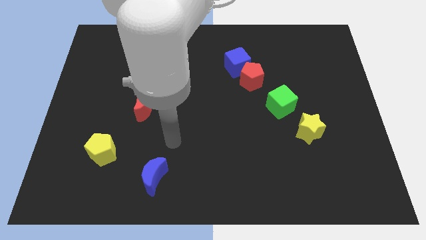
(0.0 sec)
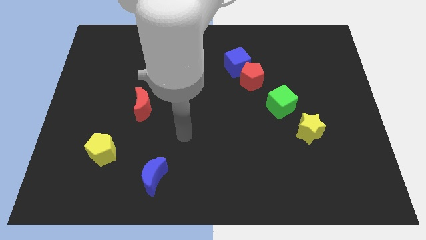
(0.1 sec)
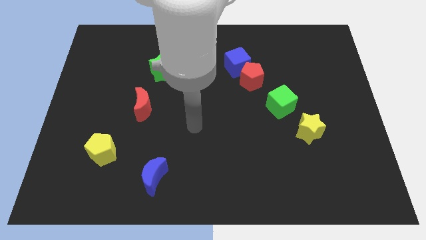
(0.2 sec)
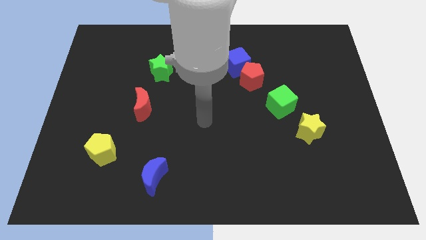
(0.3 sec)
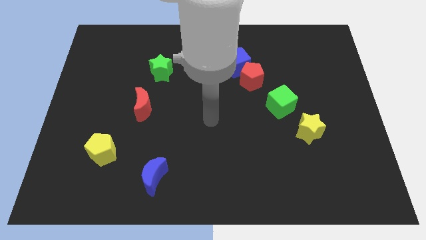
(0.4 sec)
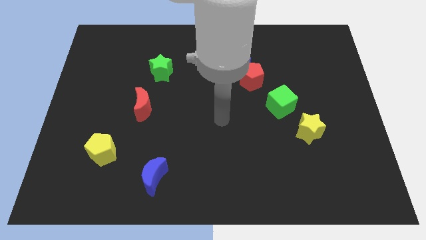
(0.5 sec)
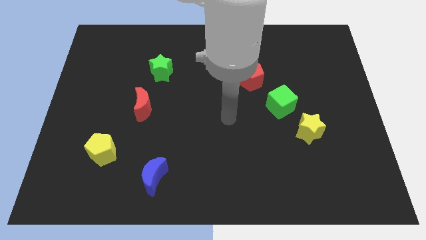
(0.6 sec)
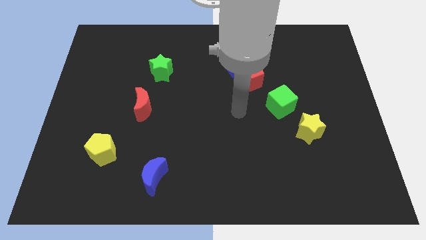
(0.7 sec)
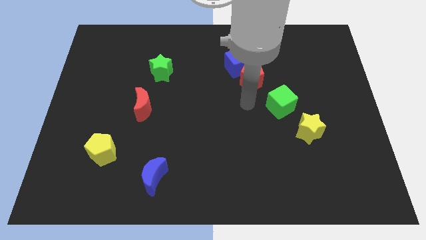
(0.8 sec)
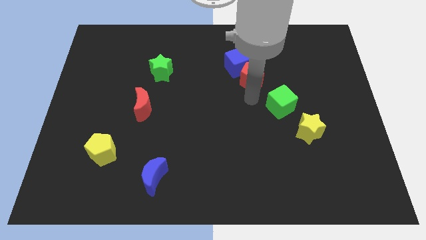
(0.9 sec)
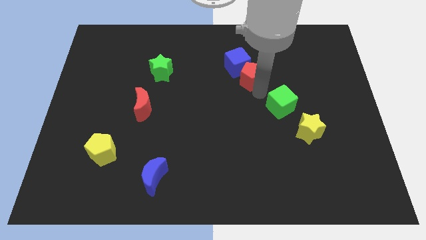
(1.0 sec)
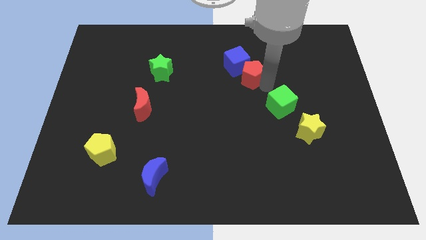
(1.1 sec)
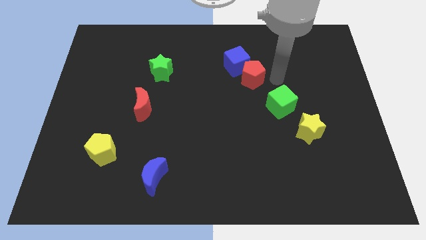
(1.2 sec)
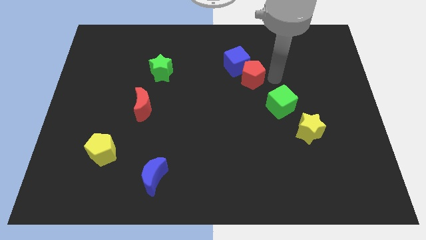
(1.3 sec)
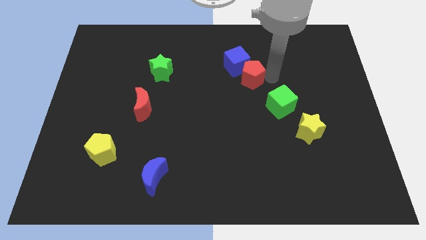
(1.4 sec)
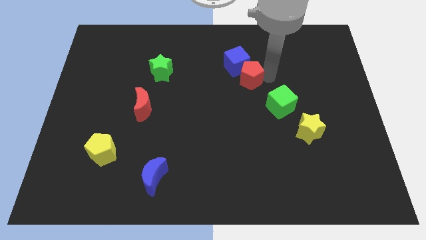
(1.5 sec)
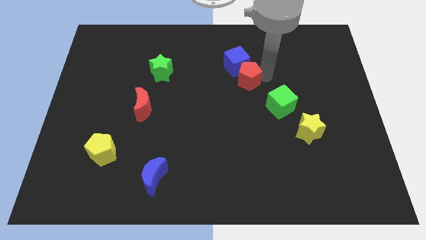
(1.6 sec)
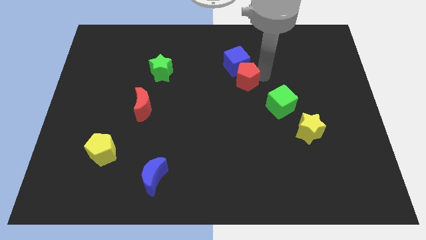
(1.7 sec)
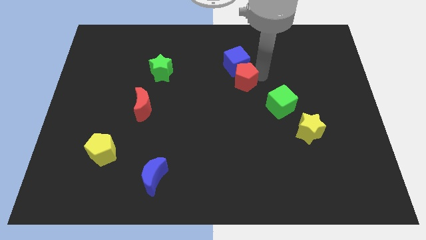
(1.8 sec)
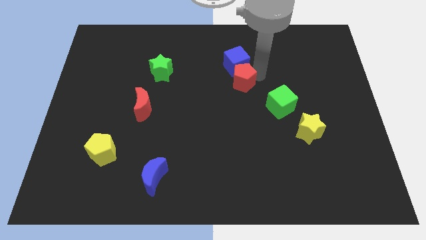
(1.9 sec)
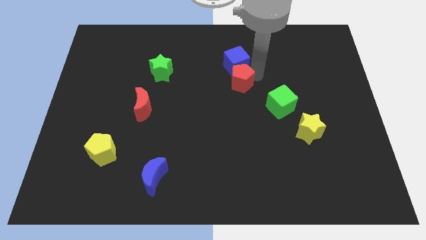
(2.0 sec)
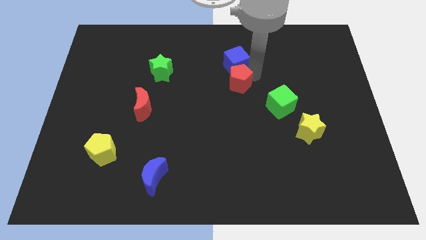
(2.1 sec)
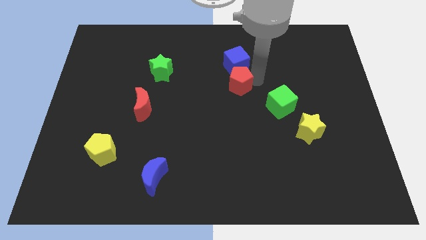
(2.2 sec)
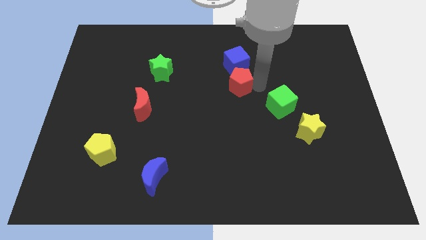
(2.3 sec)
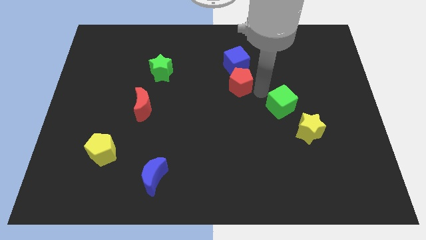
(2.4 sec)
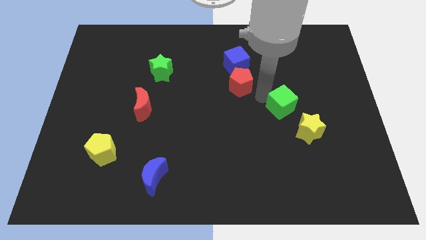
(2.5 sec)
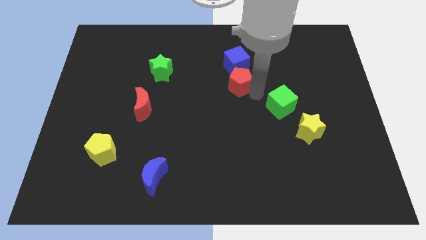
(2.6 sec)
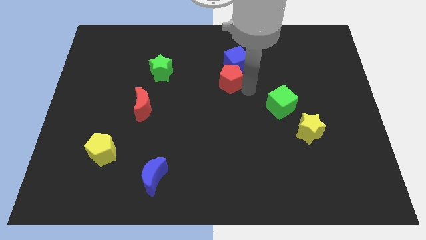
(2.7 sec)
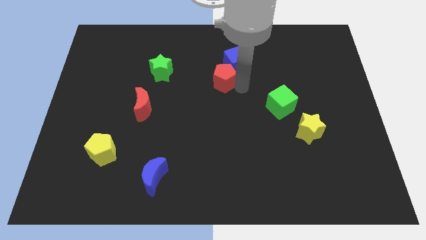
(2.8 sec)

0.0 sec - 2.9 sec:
push the red pentagon a little bit to the left

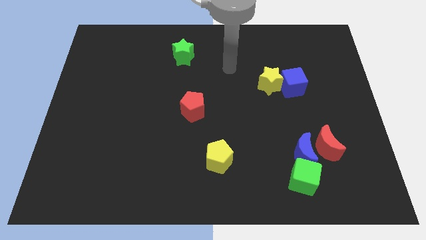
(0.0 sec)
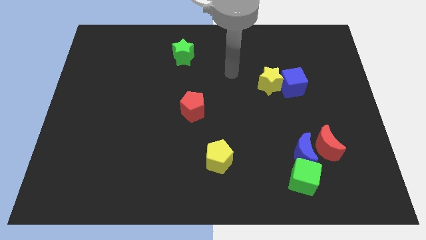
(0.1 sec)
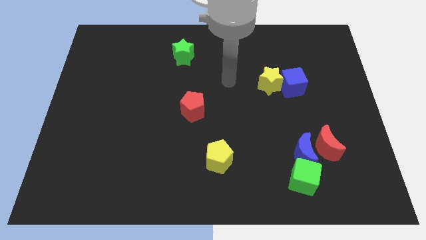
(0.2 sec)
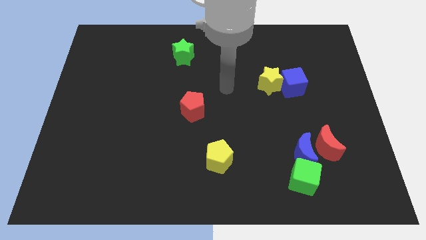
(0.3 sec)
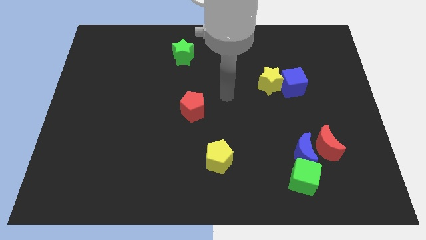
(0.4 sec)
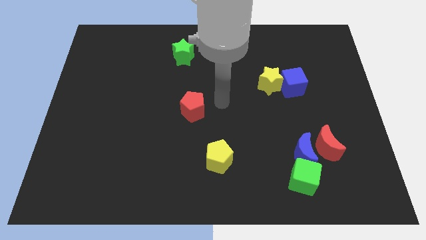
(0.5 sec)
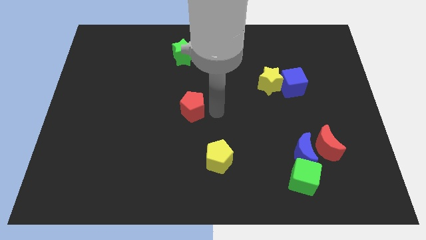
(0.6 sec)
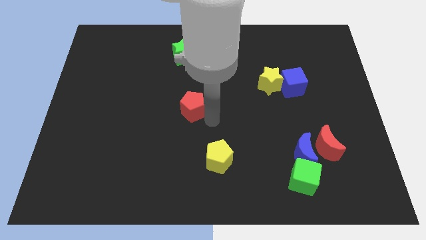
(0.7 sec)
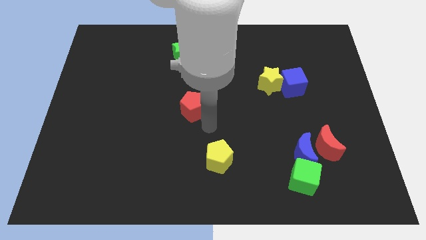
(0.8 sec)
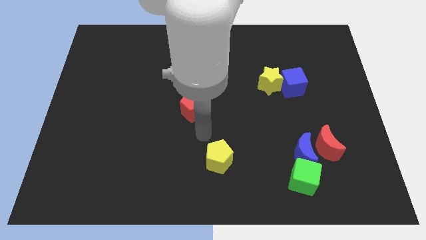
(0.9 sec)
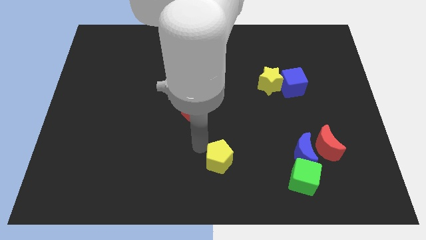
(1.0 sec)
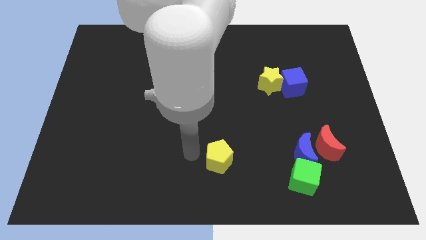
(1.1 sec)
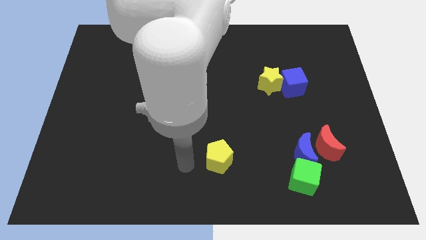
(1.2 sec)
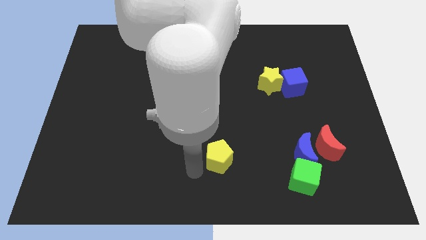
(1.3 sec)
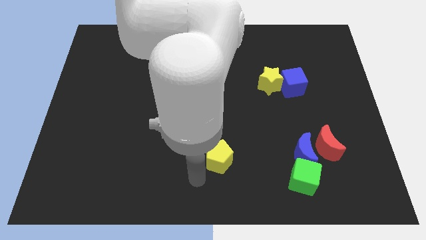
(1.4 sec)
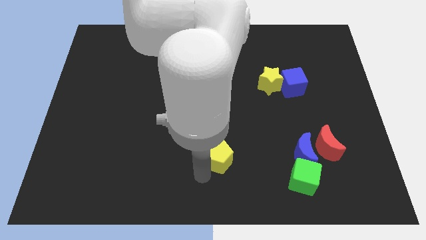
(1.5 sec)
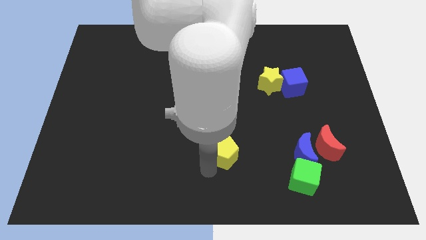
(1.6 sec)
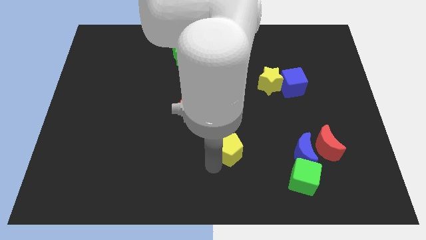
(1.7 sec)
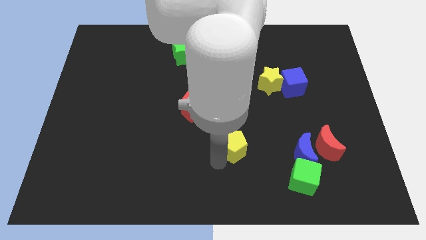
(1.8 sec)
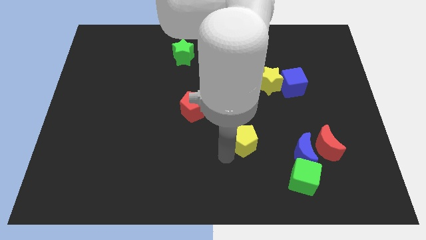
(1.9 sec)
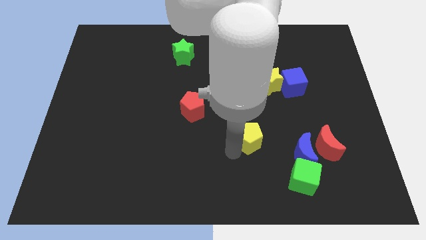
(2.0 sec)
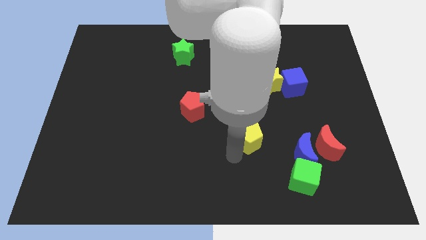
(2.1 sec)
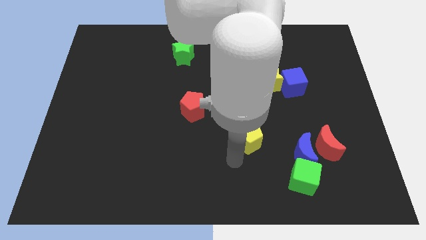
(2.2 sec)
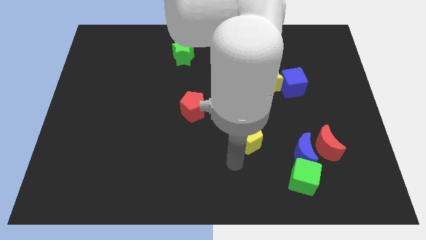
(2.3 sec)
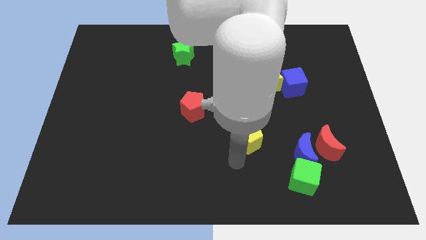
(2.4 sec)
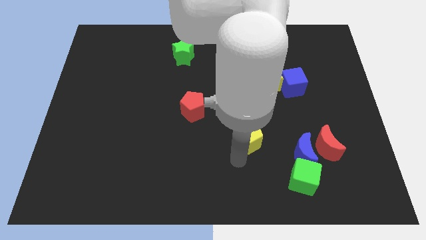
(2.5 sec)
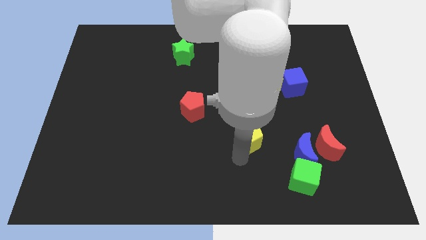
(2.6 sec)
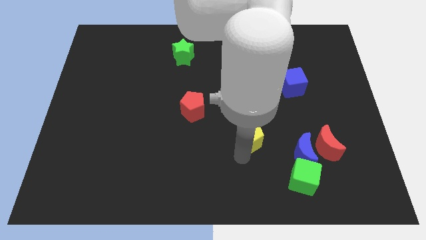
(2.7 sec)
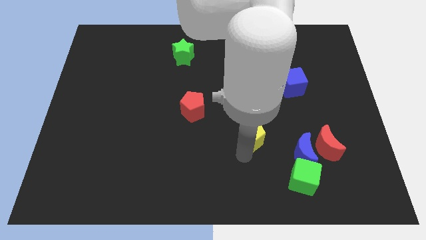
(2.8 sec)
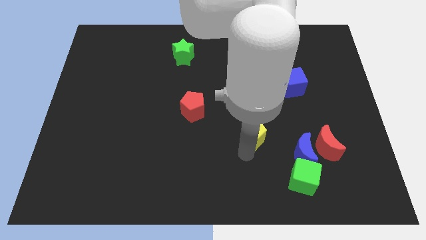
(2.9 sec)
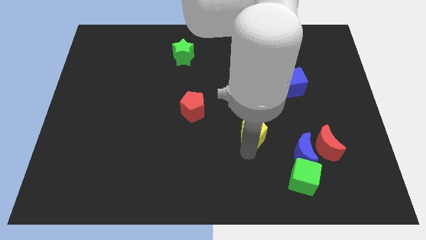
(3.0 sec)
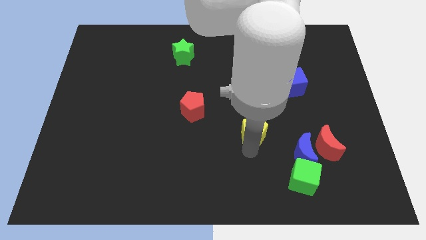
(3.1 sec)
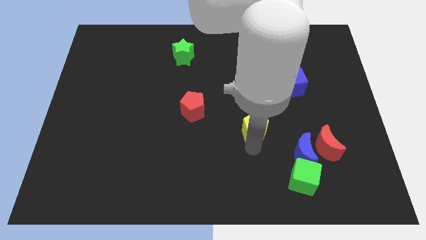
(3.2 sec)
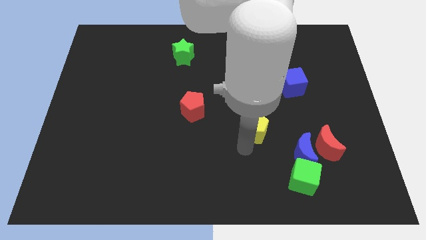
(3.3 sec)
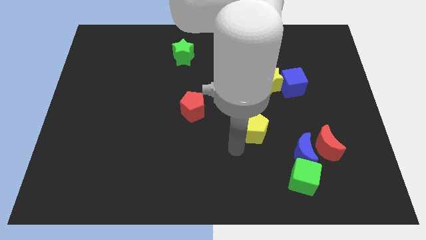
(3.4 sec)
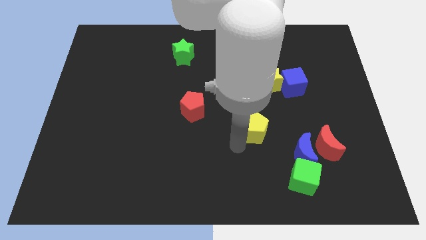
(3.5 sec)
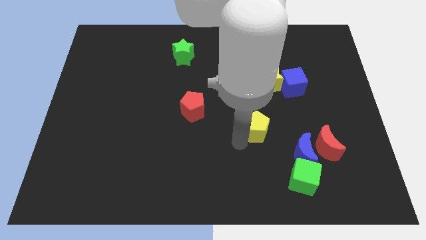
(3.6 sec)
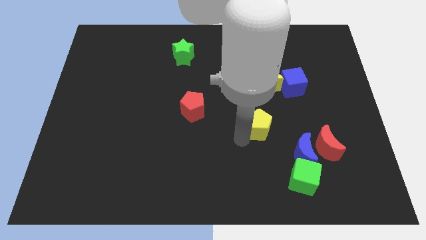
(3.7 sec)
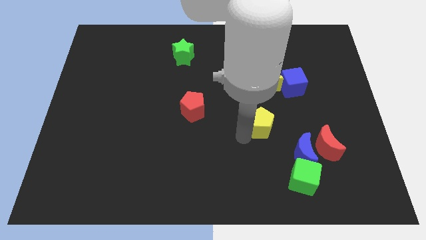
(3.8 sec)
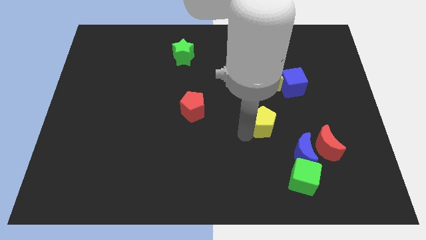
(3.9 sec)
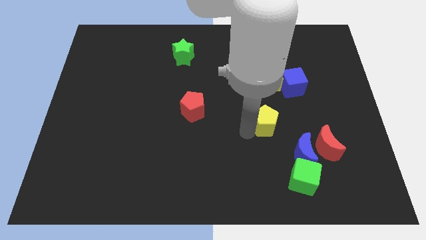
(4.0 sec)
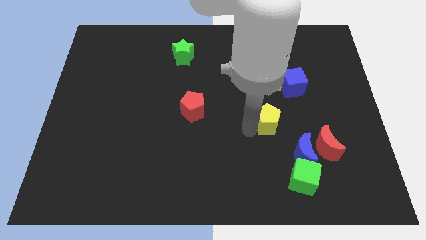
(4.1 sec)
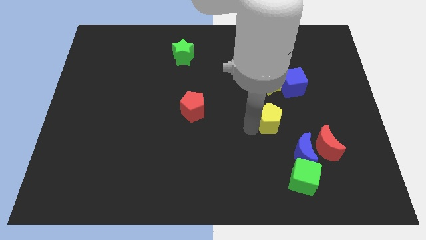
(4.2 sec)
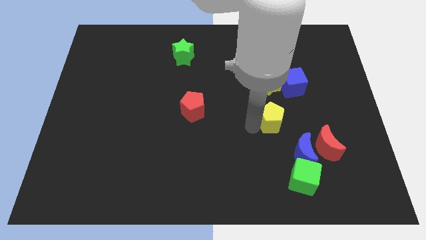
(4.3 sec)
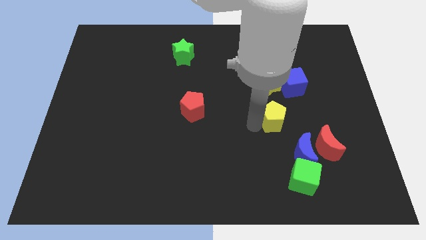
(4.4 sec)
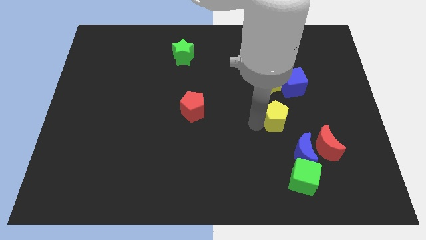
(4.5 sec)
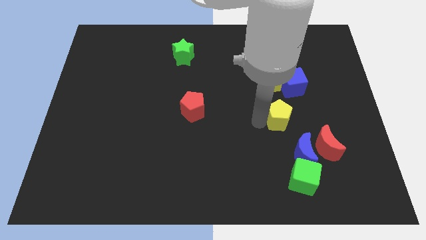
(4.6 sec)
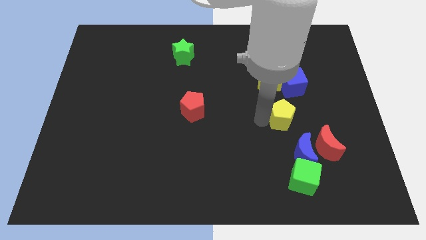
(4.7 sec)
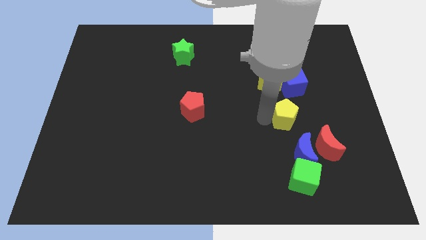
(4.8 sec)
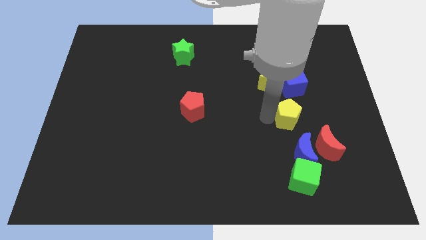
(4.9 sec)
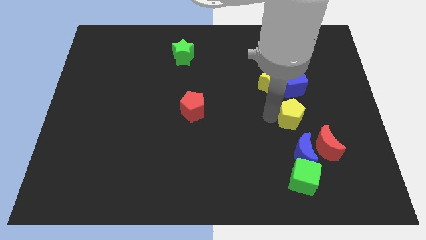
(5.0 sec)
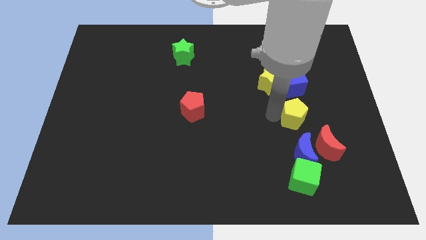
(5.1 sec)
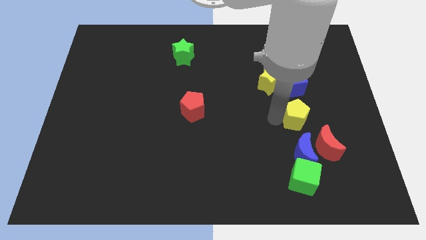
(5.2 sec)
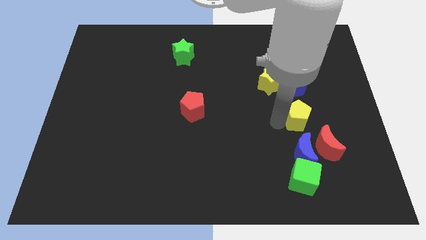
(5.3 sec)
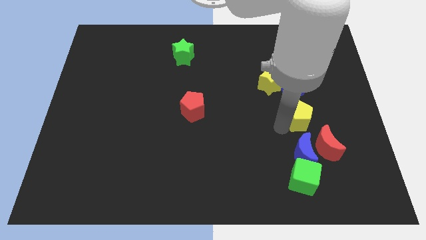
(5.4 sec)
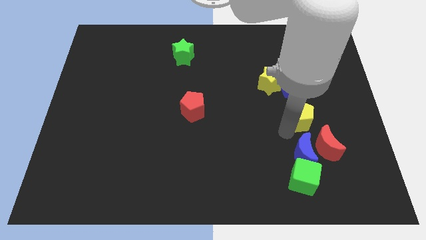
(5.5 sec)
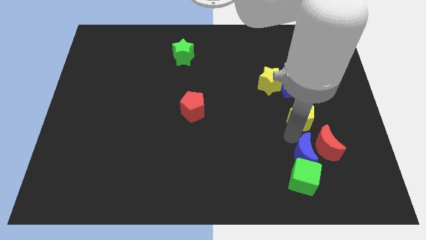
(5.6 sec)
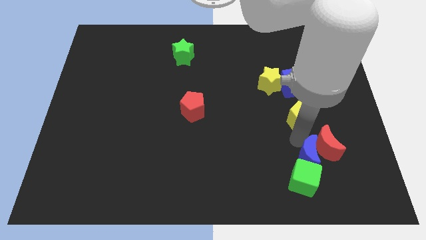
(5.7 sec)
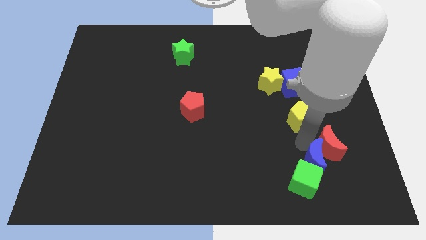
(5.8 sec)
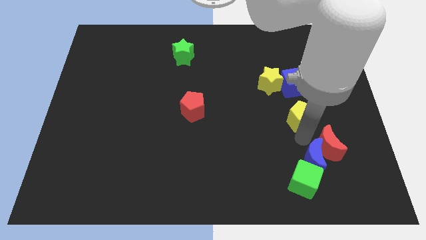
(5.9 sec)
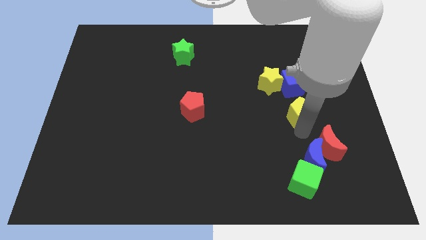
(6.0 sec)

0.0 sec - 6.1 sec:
move the yellow pentagon upwards and right
